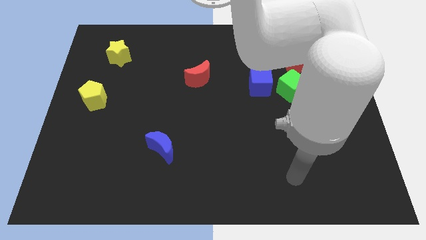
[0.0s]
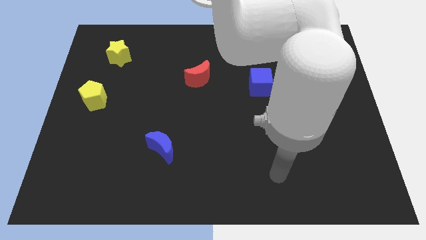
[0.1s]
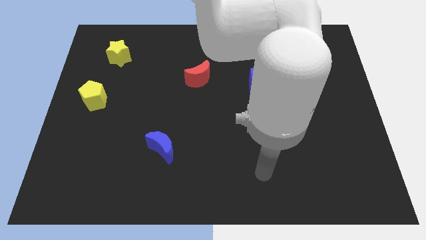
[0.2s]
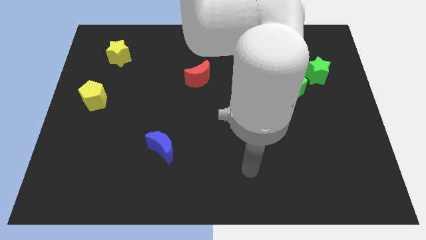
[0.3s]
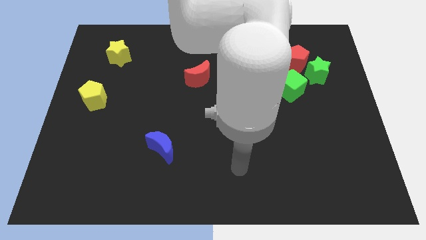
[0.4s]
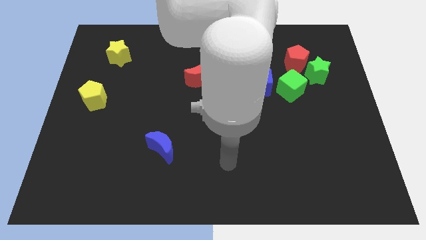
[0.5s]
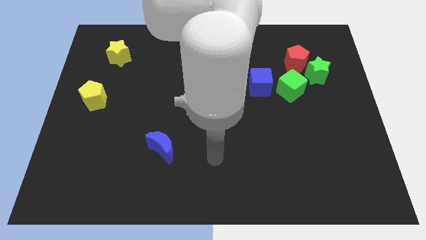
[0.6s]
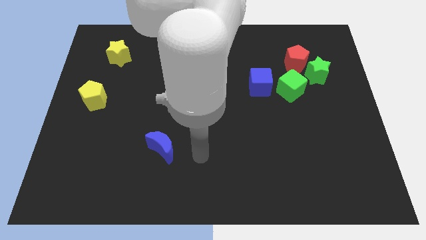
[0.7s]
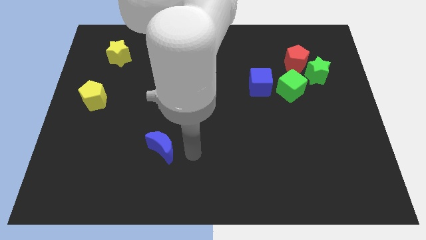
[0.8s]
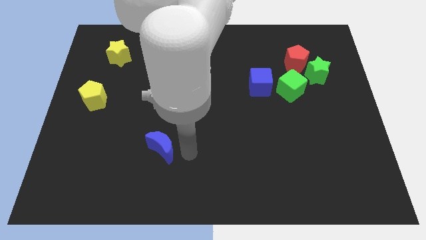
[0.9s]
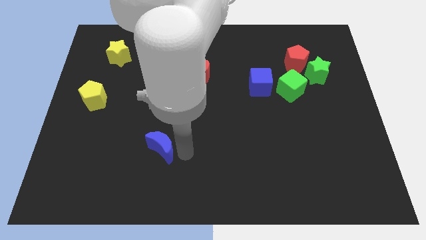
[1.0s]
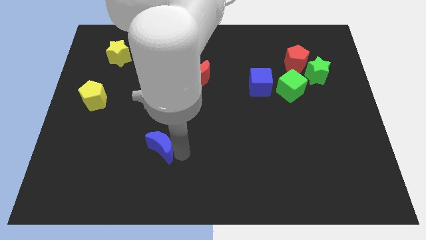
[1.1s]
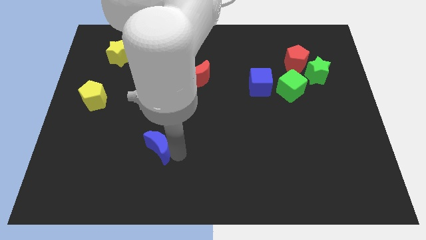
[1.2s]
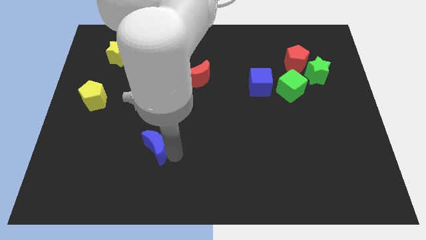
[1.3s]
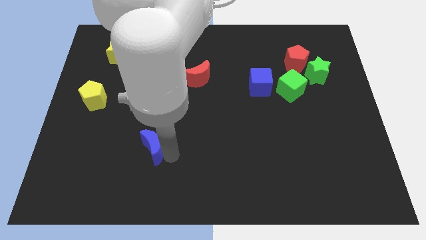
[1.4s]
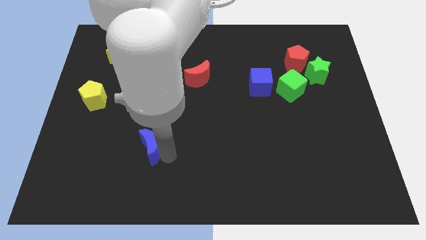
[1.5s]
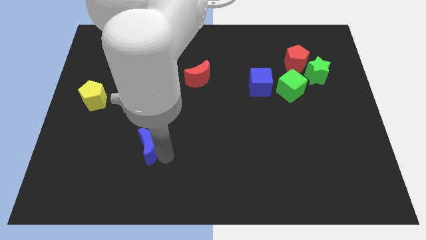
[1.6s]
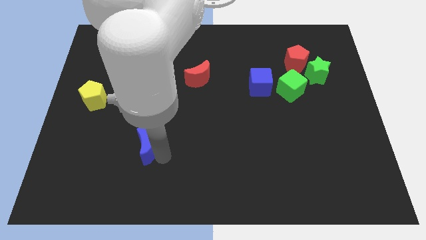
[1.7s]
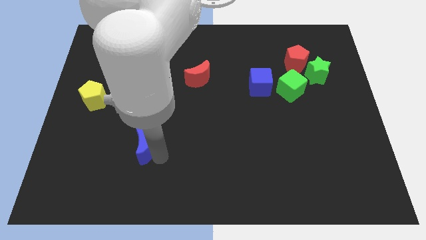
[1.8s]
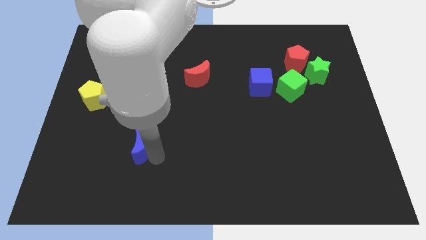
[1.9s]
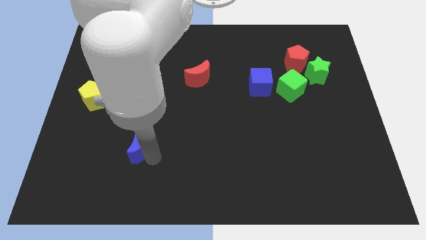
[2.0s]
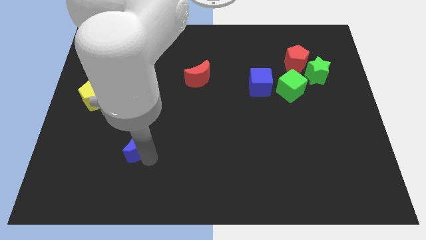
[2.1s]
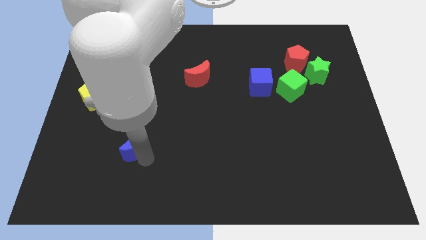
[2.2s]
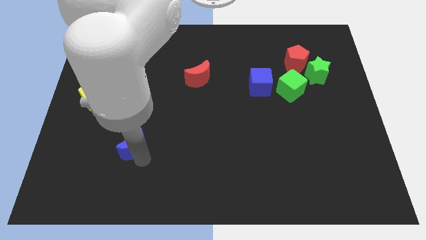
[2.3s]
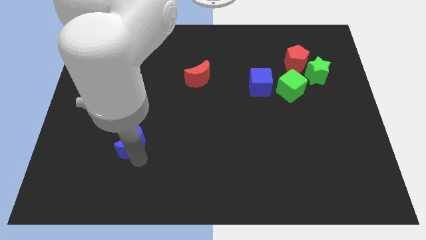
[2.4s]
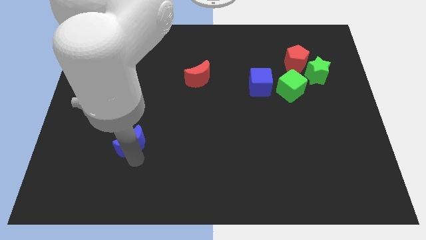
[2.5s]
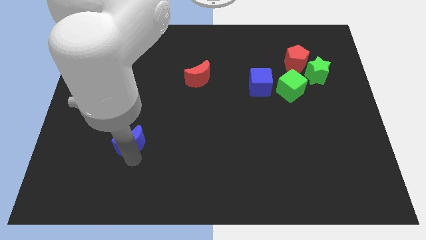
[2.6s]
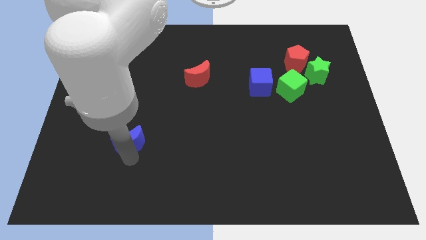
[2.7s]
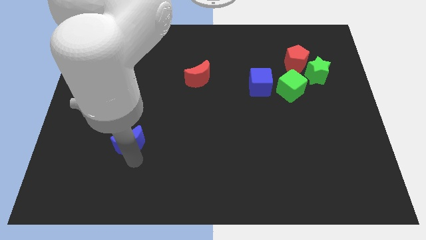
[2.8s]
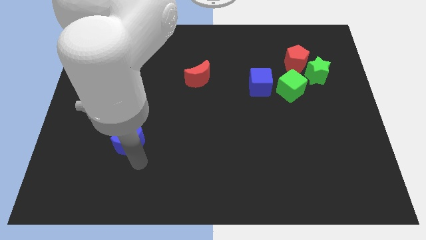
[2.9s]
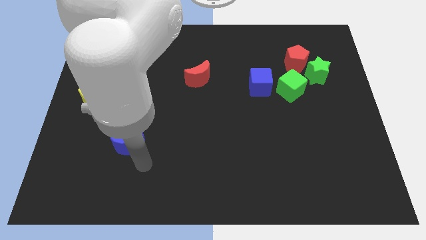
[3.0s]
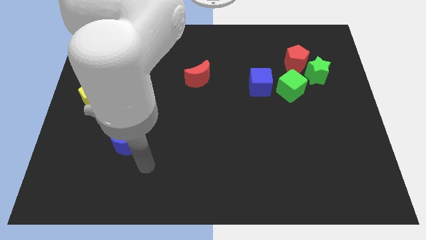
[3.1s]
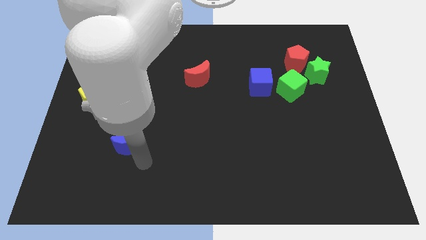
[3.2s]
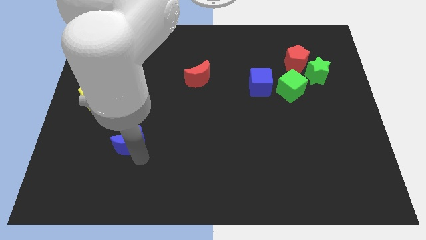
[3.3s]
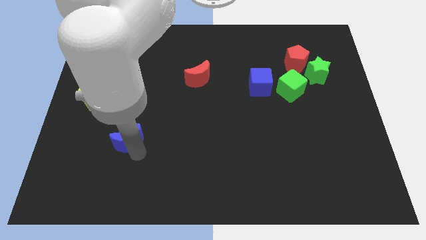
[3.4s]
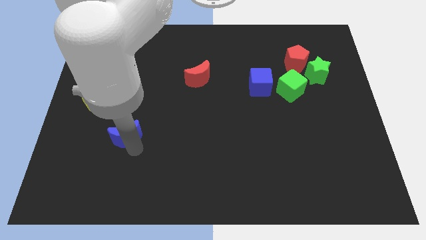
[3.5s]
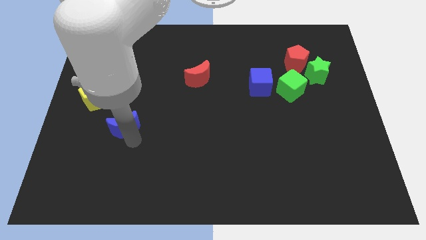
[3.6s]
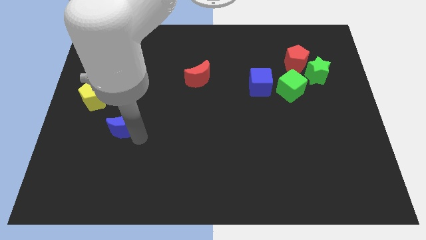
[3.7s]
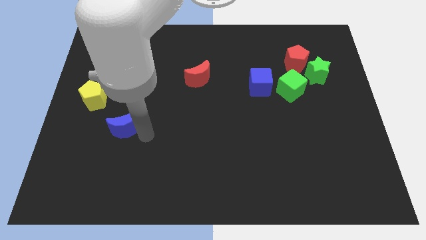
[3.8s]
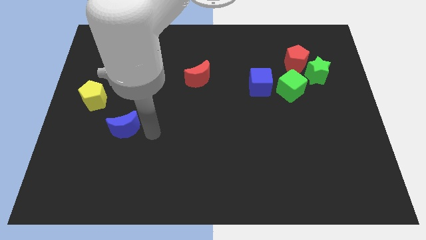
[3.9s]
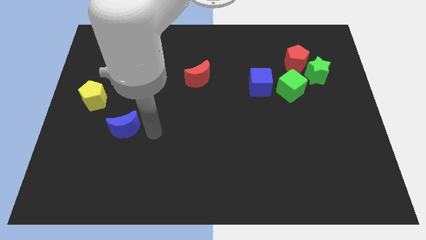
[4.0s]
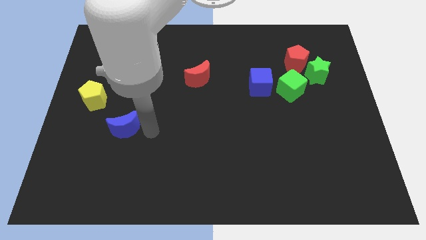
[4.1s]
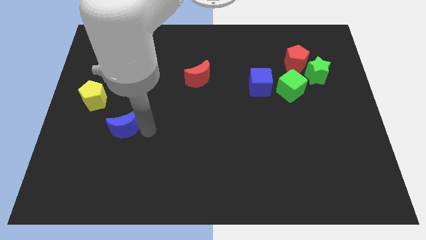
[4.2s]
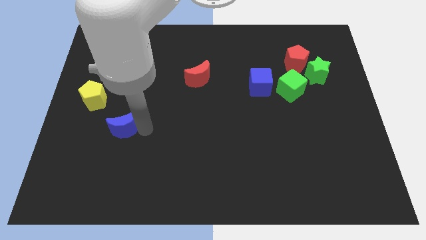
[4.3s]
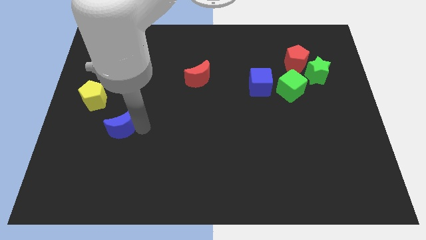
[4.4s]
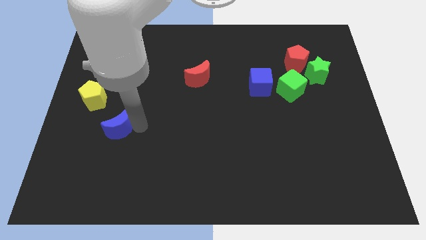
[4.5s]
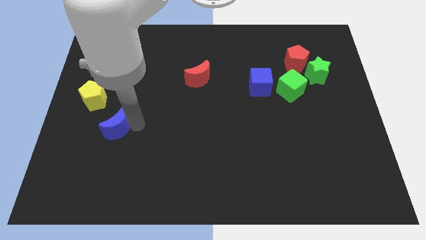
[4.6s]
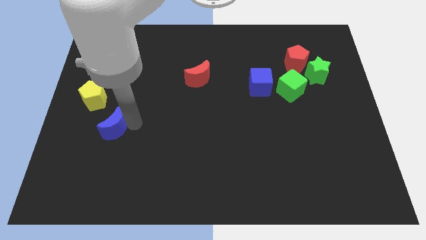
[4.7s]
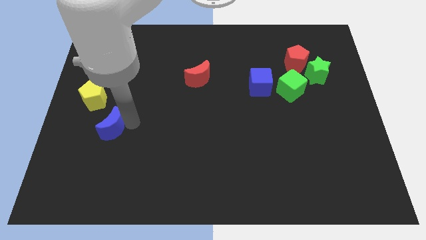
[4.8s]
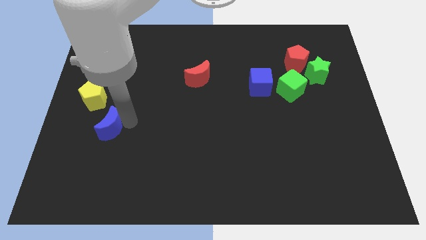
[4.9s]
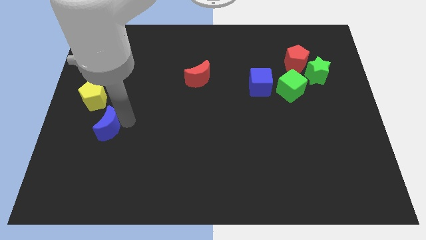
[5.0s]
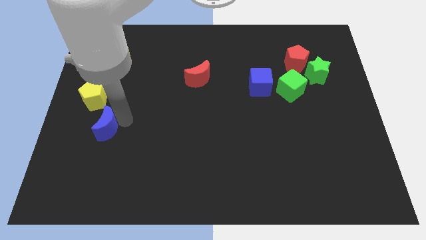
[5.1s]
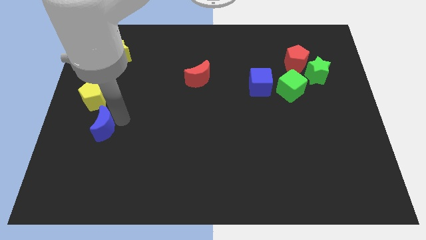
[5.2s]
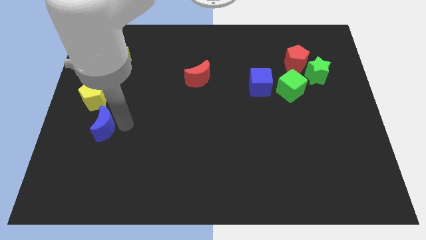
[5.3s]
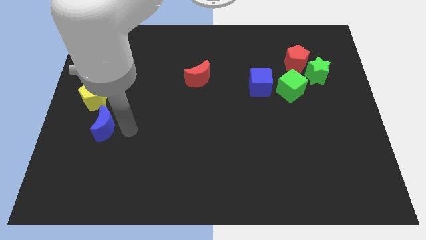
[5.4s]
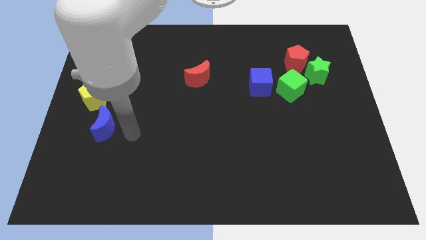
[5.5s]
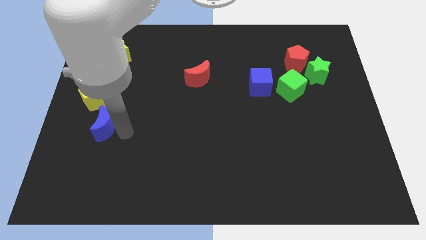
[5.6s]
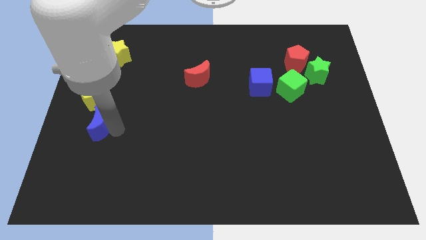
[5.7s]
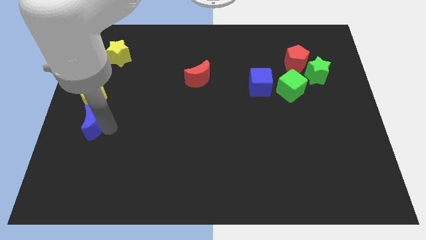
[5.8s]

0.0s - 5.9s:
put the blue moon to the left side of the board

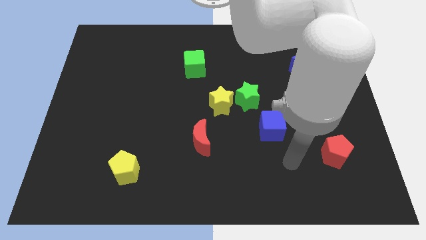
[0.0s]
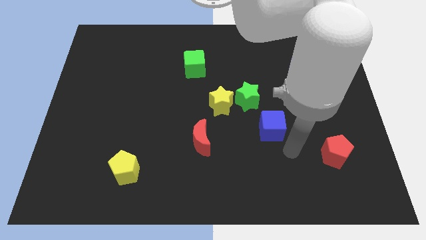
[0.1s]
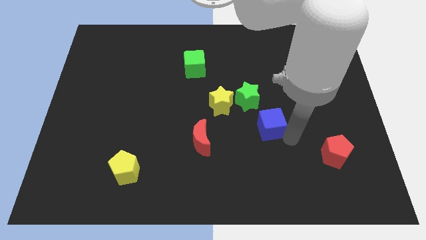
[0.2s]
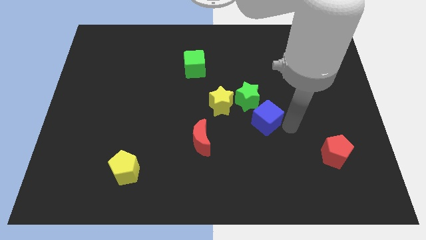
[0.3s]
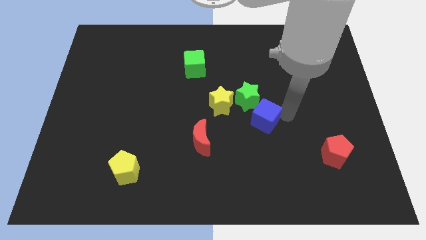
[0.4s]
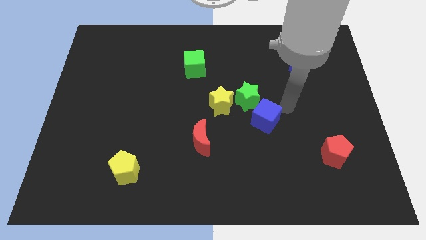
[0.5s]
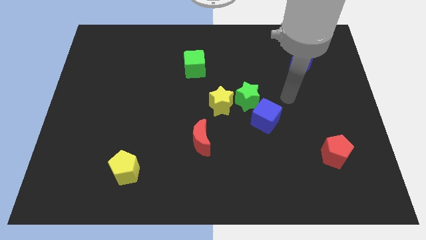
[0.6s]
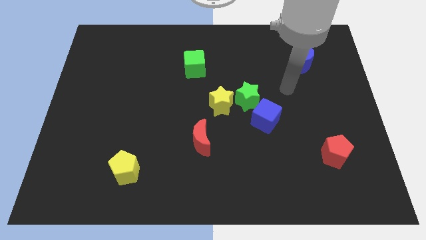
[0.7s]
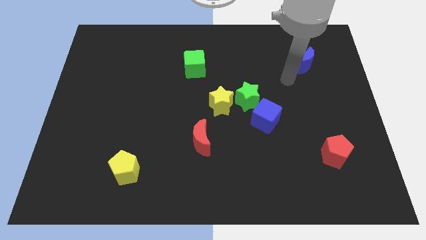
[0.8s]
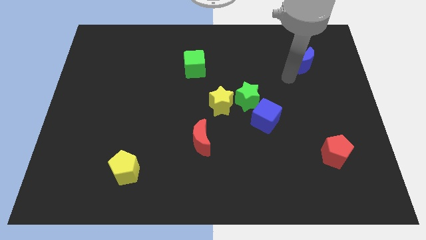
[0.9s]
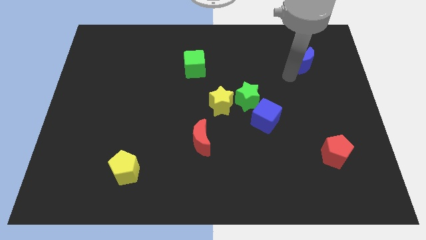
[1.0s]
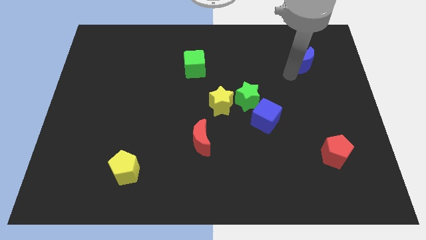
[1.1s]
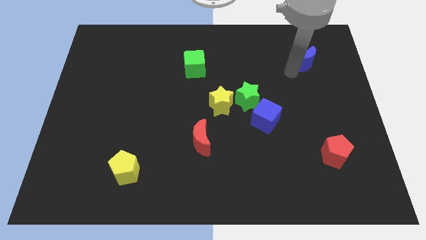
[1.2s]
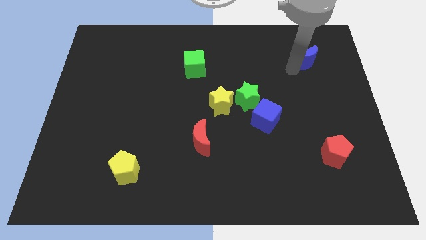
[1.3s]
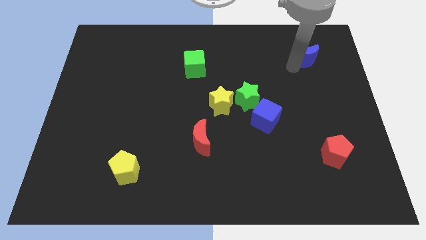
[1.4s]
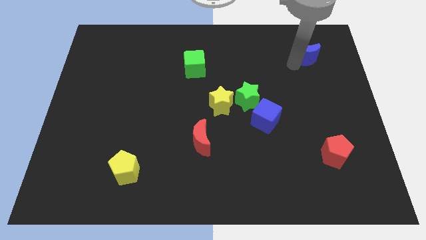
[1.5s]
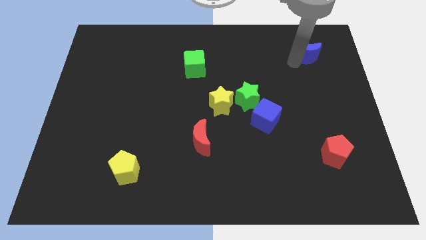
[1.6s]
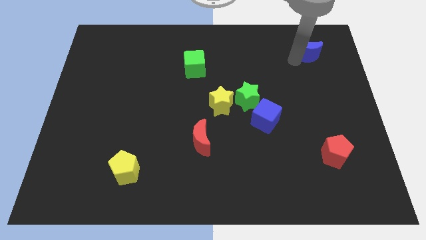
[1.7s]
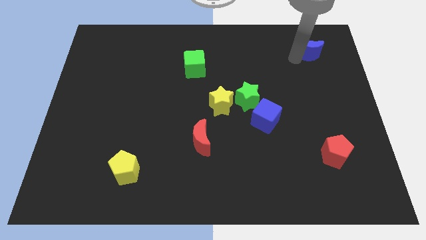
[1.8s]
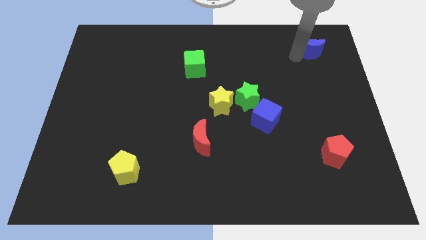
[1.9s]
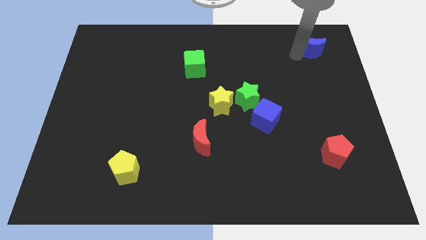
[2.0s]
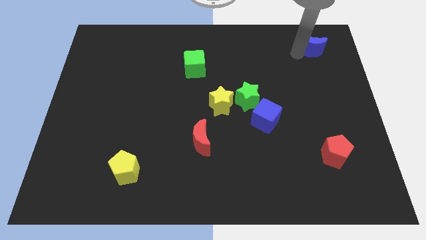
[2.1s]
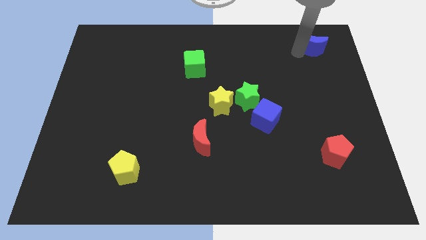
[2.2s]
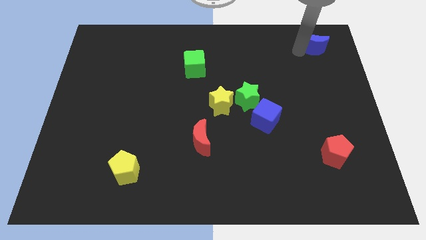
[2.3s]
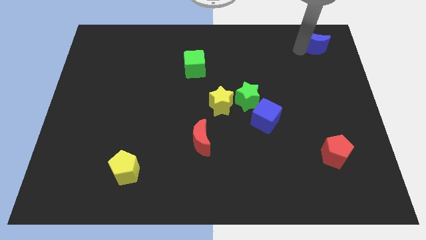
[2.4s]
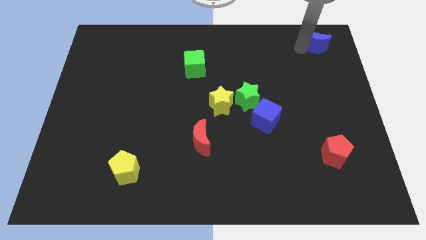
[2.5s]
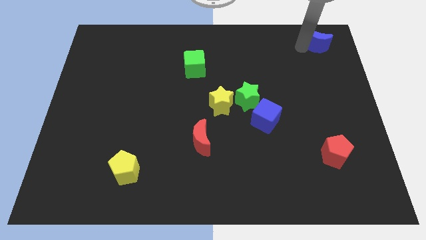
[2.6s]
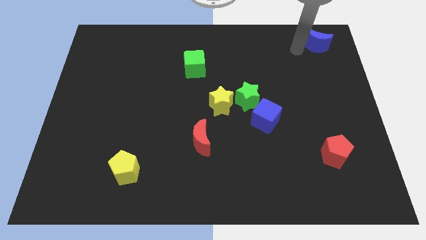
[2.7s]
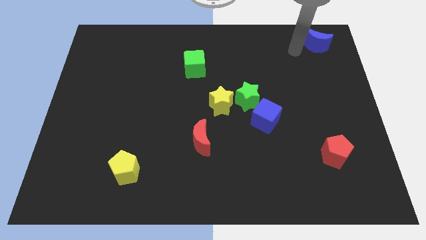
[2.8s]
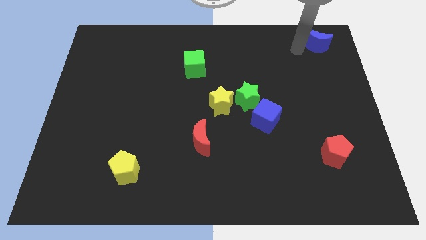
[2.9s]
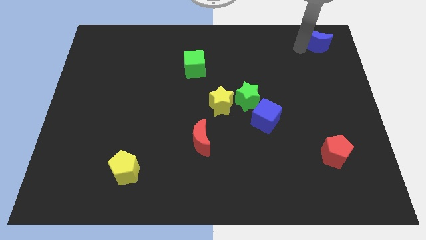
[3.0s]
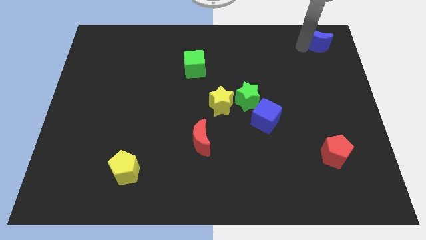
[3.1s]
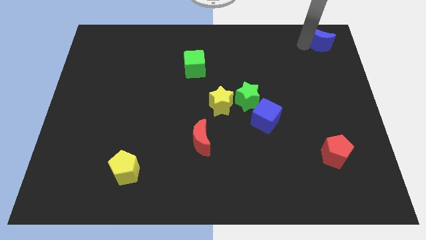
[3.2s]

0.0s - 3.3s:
push the blue moon to the top right corner
